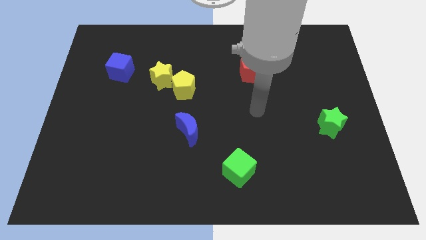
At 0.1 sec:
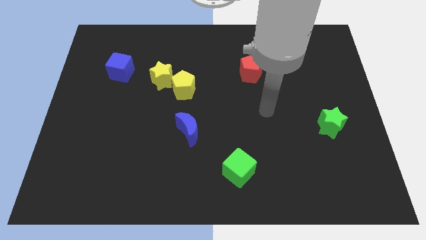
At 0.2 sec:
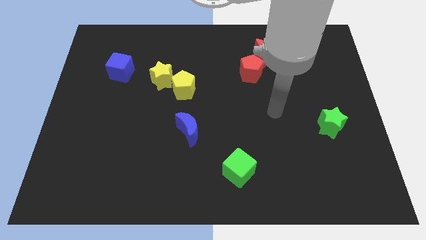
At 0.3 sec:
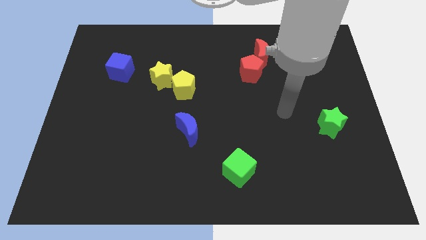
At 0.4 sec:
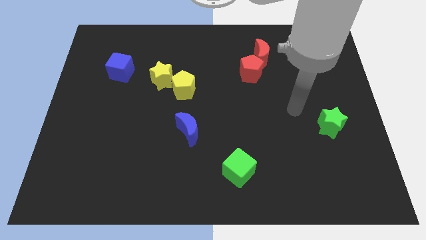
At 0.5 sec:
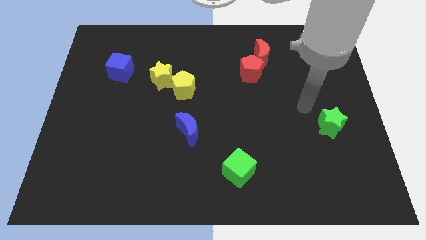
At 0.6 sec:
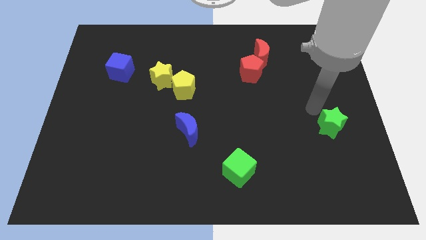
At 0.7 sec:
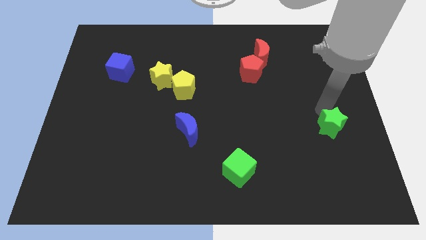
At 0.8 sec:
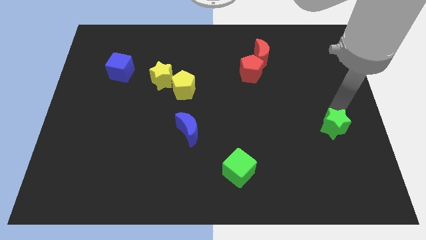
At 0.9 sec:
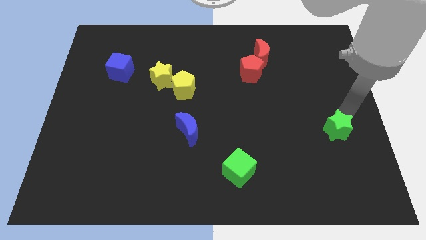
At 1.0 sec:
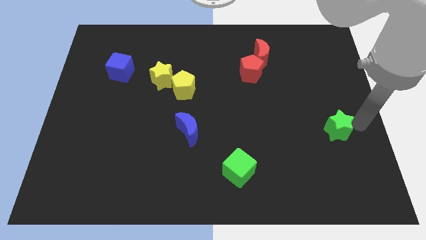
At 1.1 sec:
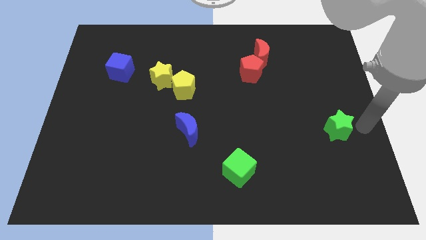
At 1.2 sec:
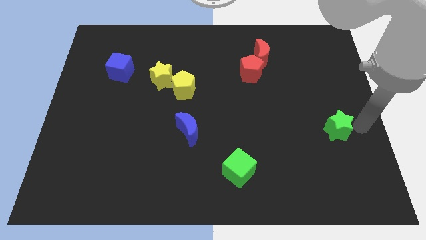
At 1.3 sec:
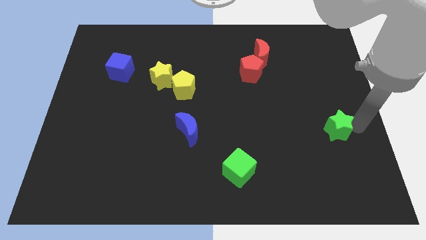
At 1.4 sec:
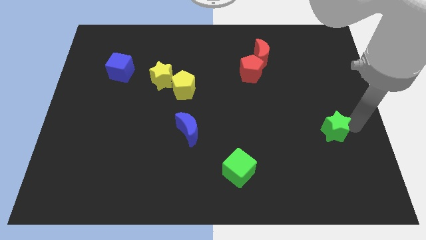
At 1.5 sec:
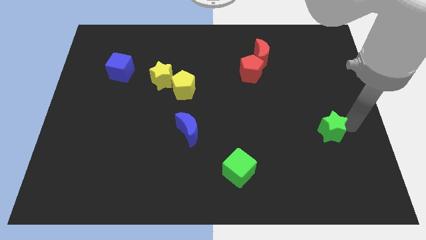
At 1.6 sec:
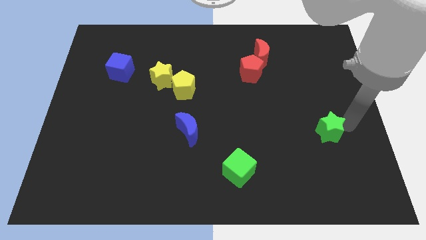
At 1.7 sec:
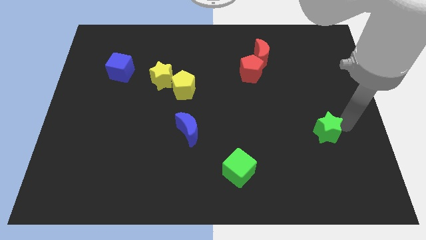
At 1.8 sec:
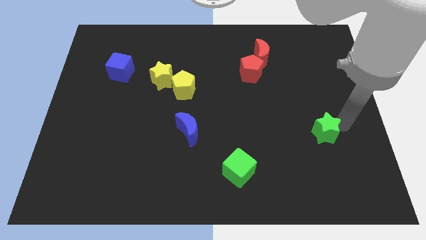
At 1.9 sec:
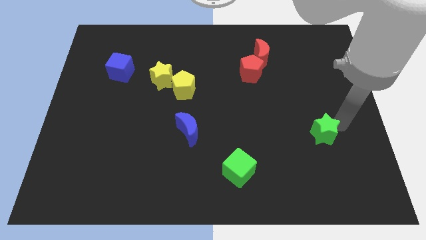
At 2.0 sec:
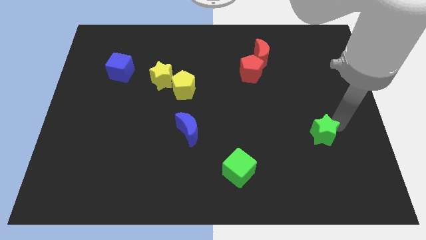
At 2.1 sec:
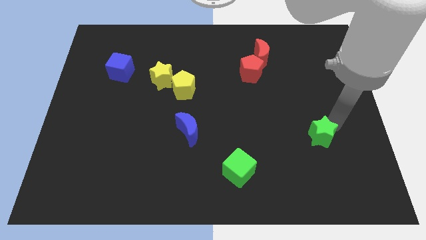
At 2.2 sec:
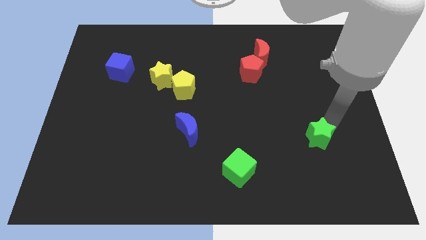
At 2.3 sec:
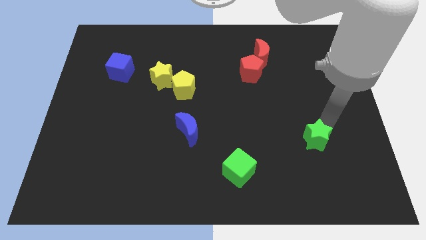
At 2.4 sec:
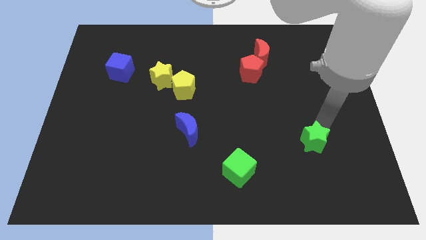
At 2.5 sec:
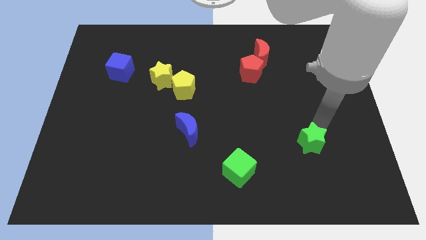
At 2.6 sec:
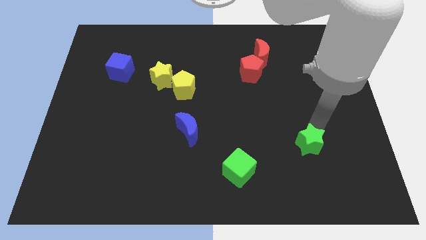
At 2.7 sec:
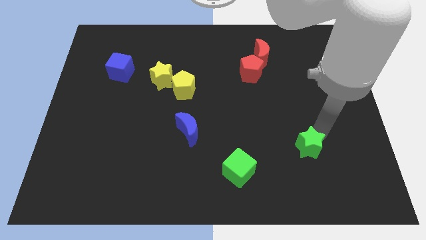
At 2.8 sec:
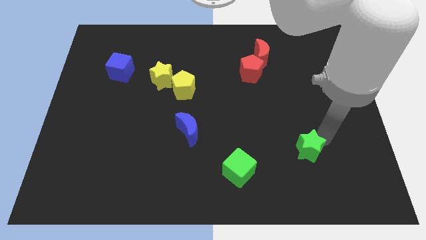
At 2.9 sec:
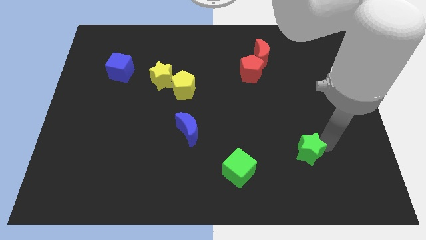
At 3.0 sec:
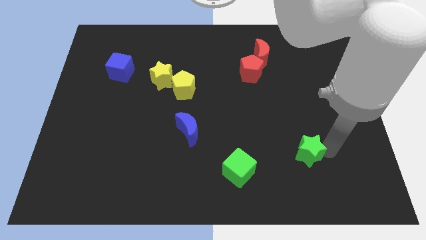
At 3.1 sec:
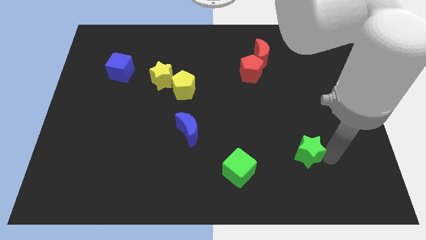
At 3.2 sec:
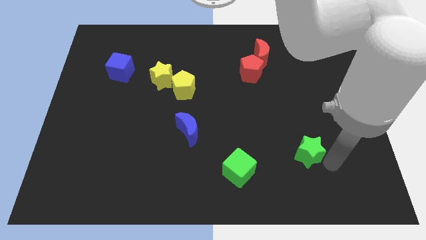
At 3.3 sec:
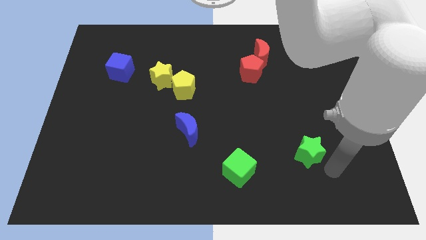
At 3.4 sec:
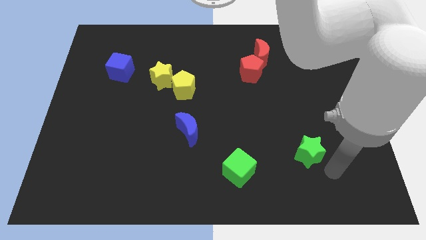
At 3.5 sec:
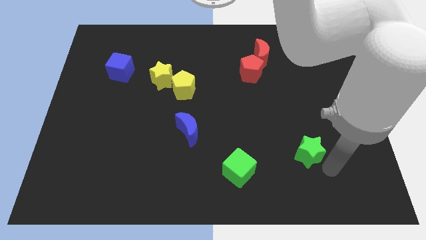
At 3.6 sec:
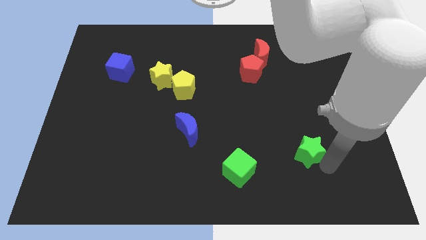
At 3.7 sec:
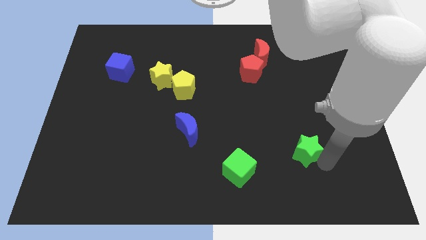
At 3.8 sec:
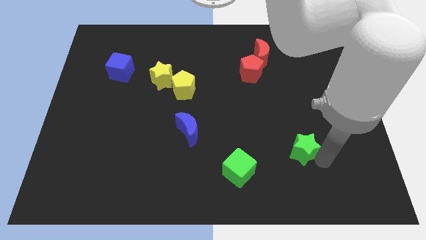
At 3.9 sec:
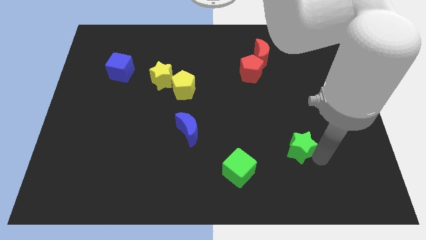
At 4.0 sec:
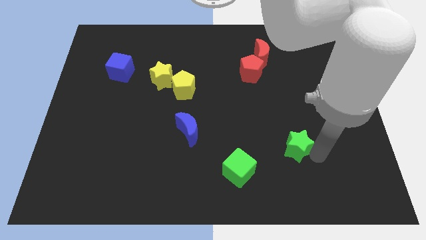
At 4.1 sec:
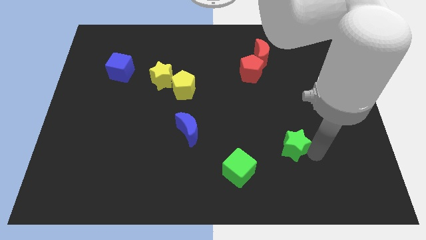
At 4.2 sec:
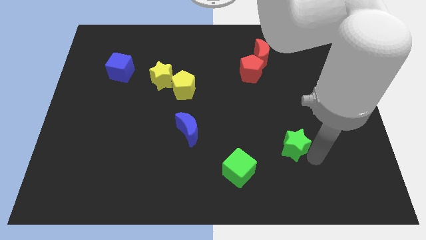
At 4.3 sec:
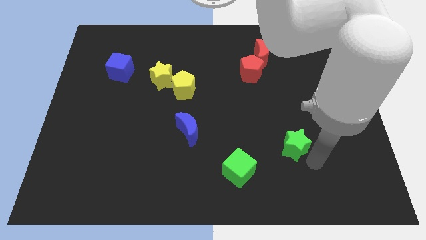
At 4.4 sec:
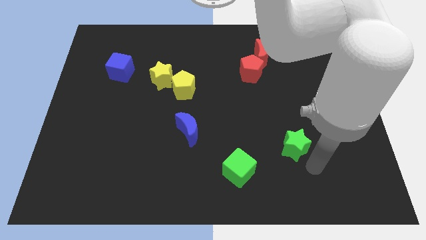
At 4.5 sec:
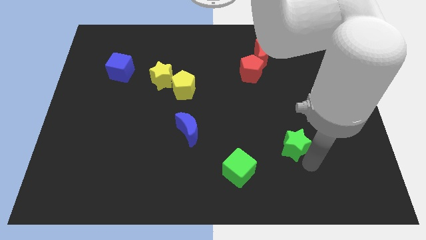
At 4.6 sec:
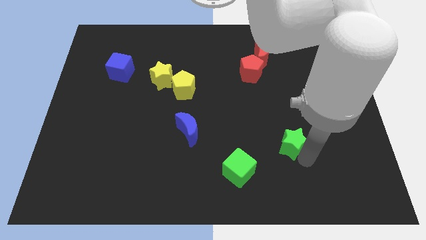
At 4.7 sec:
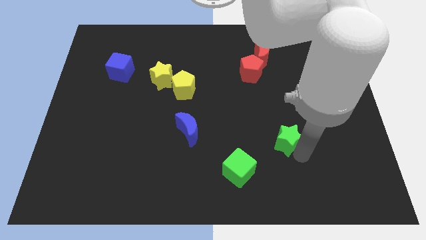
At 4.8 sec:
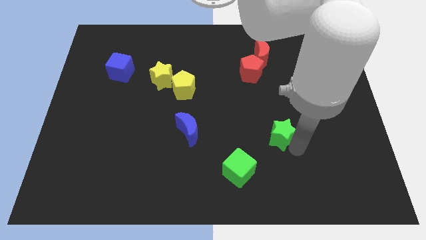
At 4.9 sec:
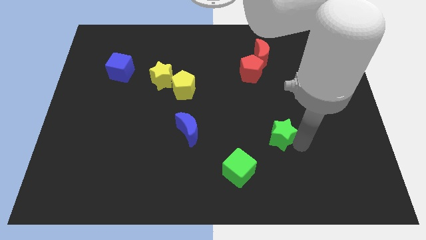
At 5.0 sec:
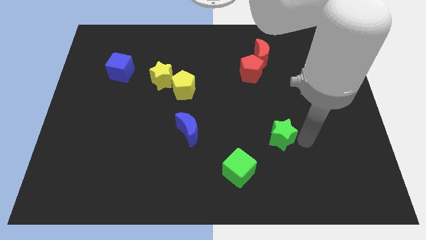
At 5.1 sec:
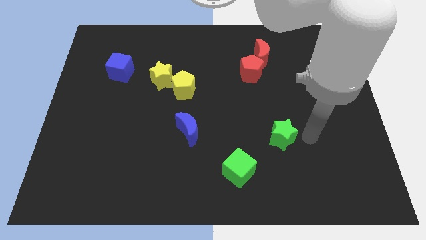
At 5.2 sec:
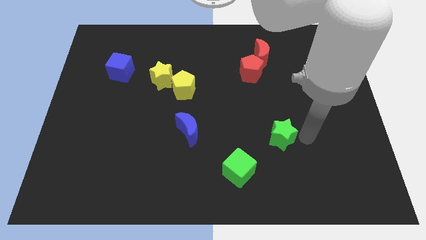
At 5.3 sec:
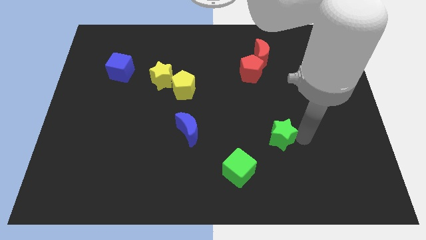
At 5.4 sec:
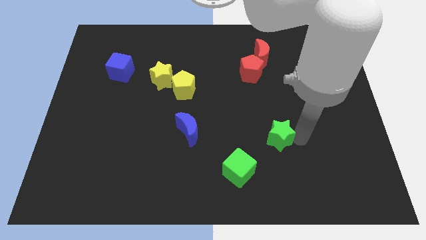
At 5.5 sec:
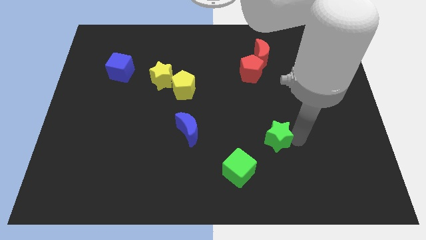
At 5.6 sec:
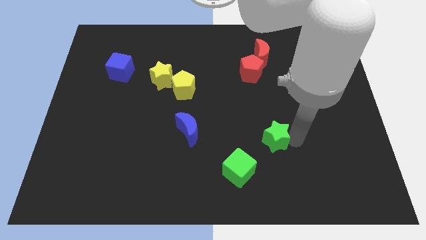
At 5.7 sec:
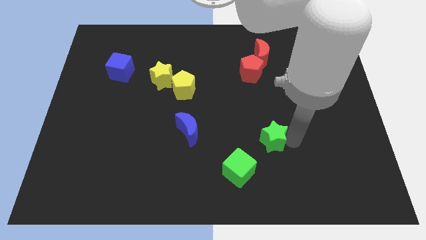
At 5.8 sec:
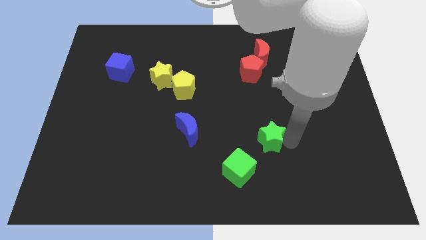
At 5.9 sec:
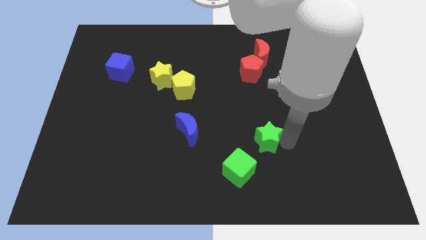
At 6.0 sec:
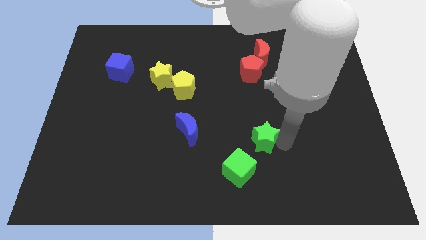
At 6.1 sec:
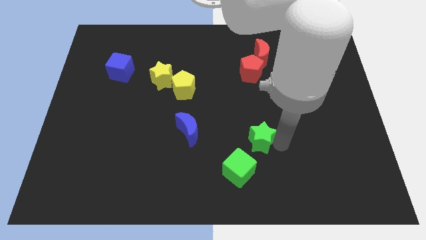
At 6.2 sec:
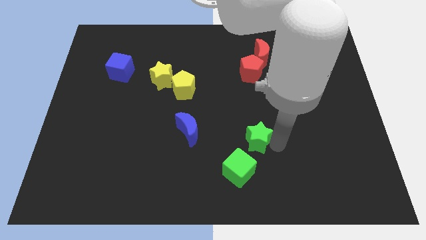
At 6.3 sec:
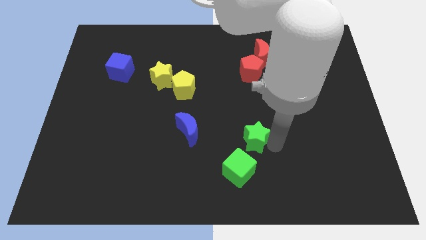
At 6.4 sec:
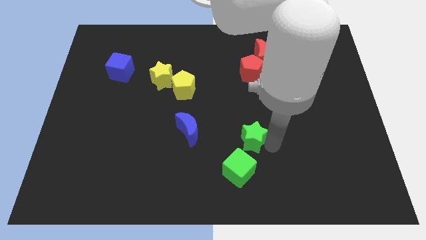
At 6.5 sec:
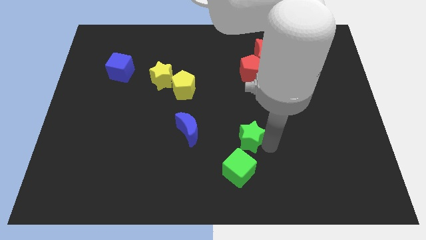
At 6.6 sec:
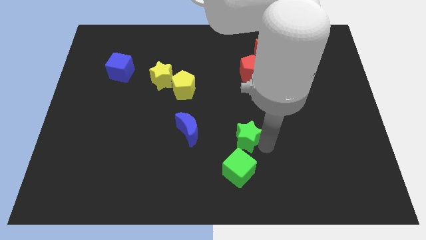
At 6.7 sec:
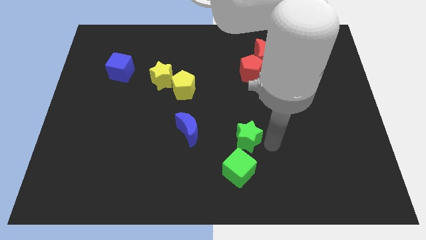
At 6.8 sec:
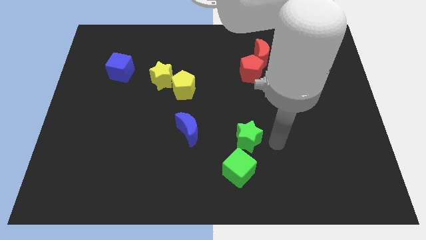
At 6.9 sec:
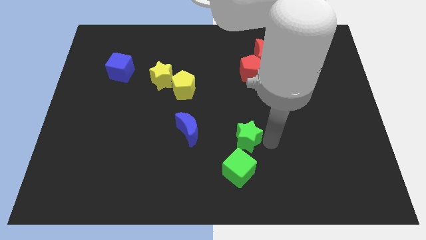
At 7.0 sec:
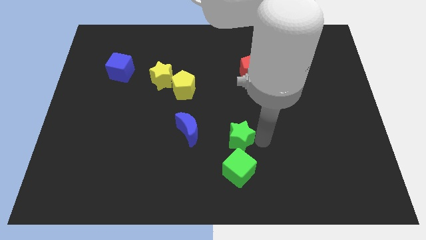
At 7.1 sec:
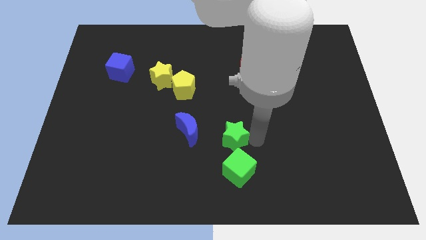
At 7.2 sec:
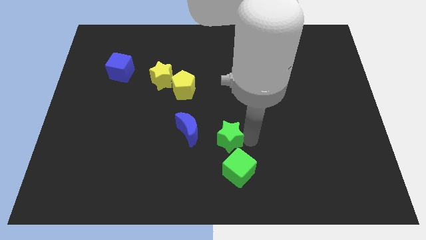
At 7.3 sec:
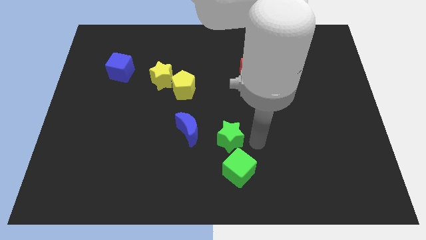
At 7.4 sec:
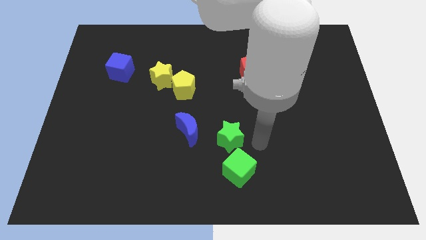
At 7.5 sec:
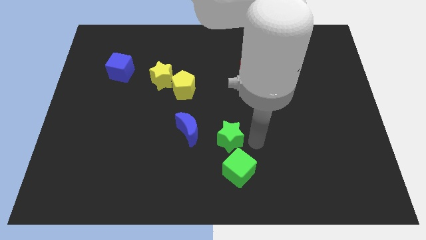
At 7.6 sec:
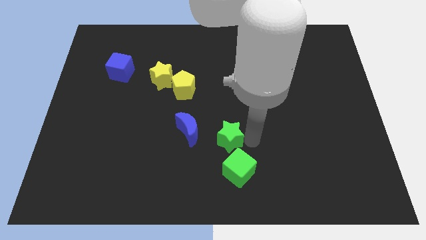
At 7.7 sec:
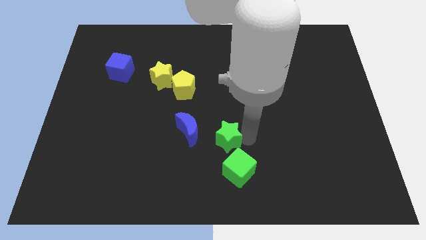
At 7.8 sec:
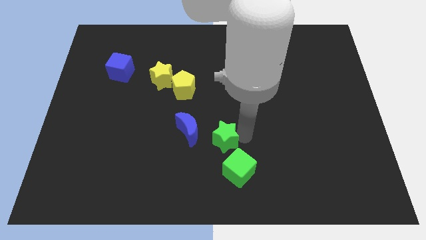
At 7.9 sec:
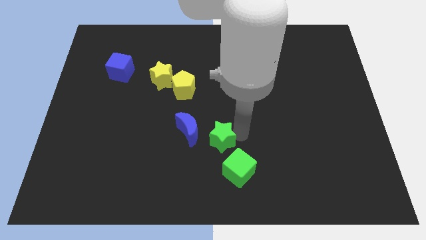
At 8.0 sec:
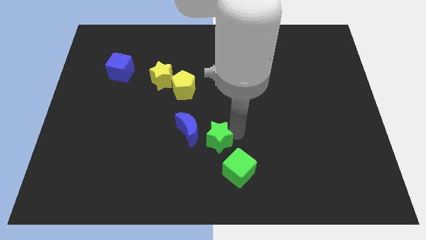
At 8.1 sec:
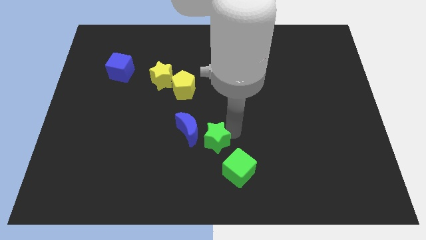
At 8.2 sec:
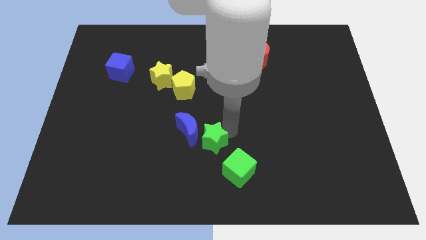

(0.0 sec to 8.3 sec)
move the green star next to the blue moon
